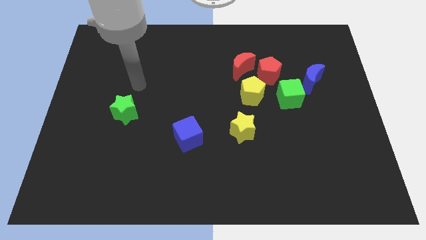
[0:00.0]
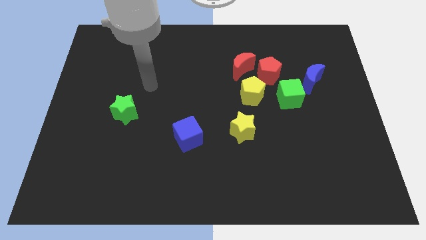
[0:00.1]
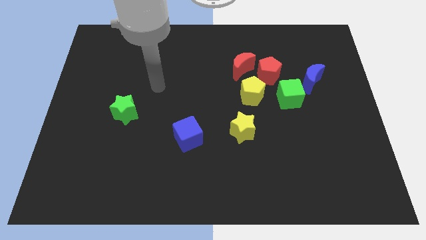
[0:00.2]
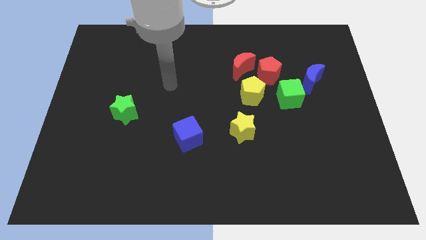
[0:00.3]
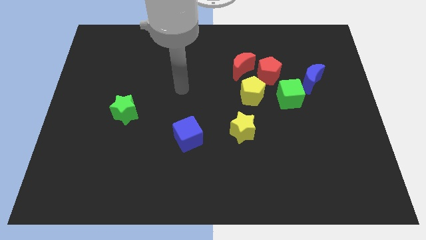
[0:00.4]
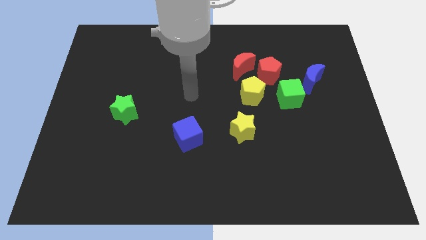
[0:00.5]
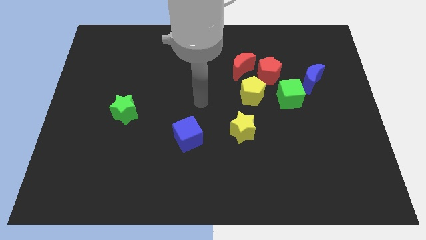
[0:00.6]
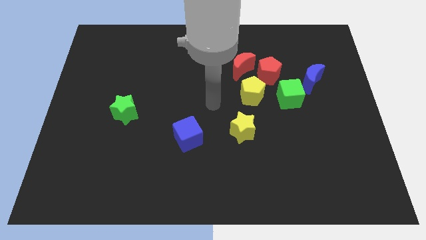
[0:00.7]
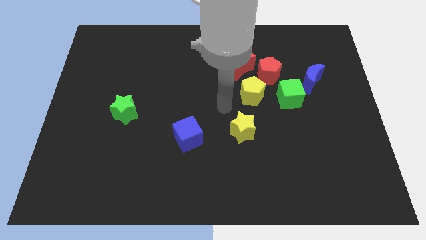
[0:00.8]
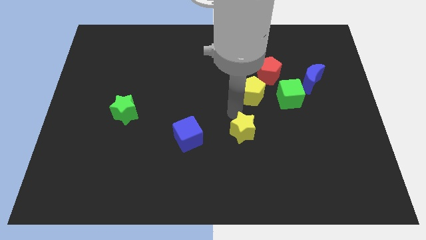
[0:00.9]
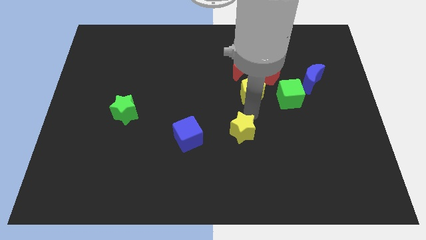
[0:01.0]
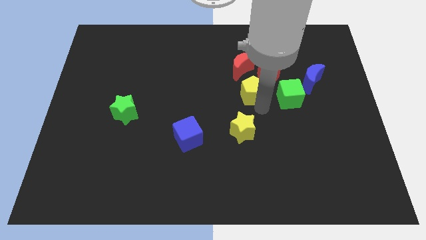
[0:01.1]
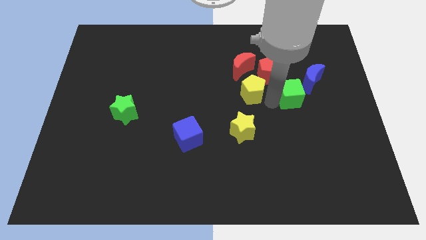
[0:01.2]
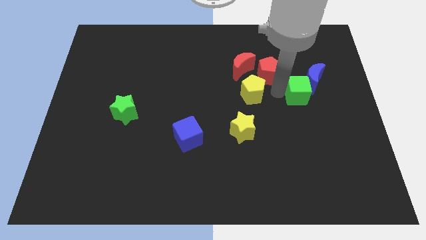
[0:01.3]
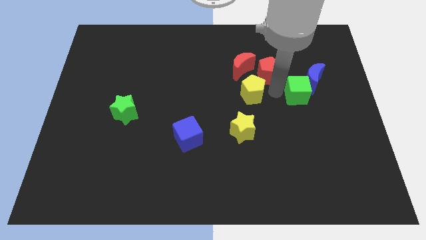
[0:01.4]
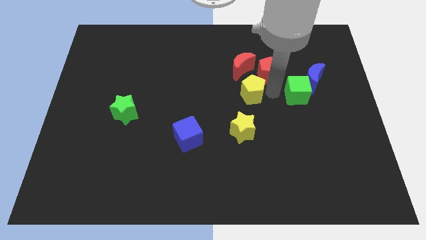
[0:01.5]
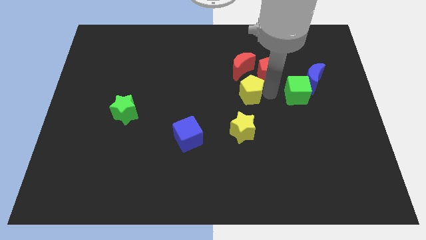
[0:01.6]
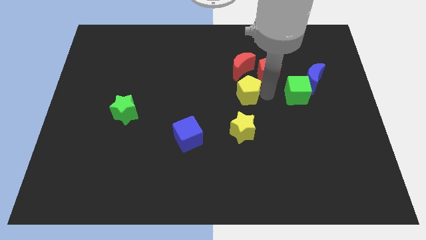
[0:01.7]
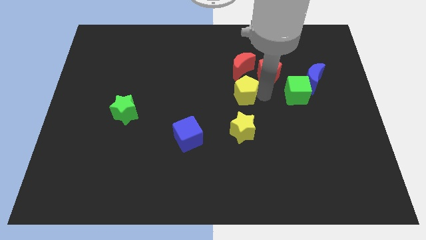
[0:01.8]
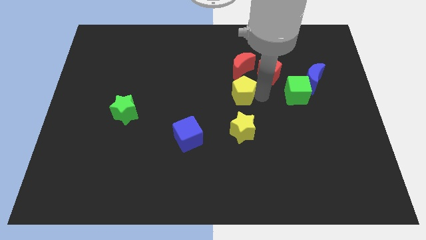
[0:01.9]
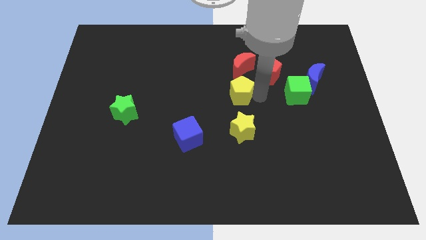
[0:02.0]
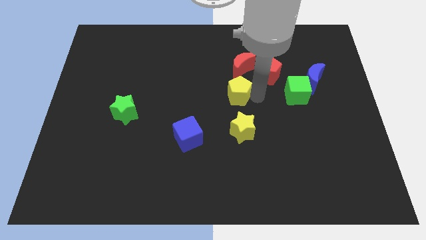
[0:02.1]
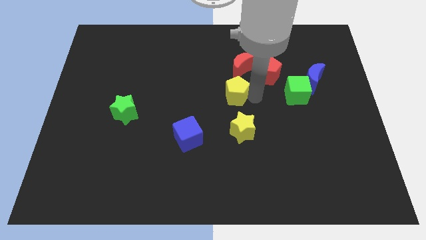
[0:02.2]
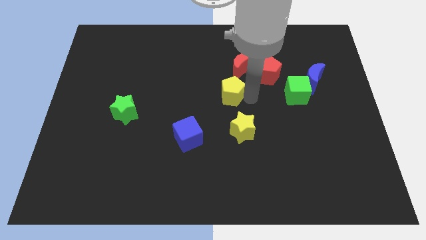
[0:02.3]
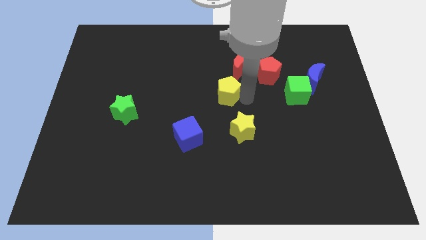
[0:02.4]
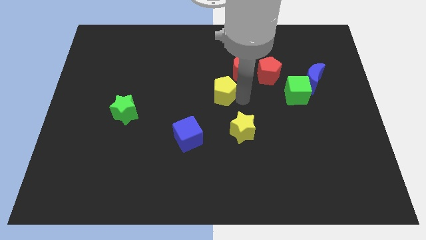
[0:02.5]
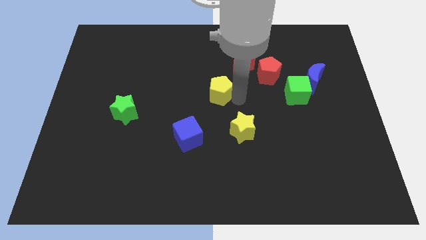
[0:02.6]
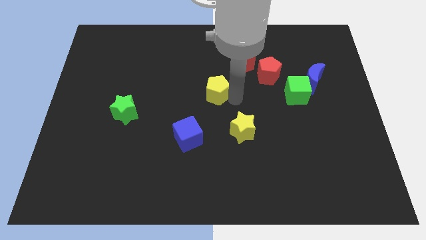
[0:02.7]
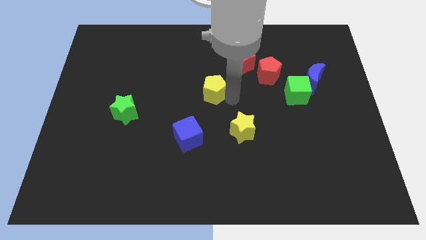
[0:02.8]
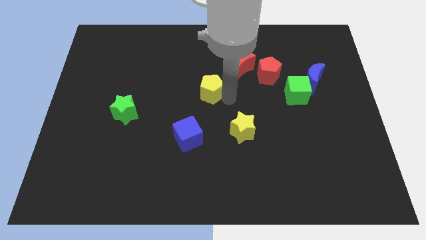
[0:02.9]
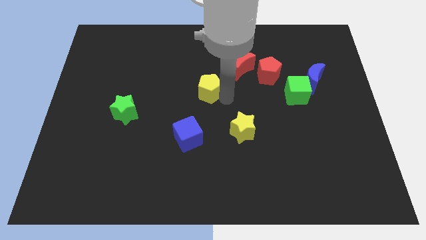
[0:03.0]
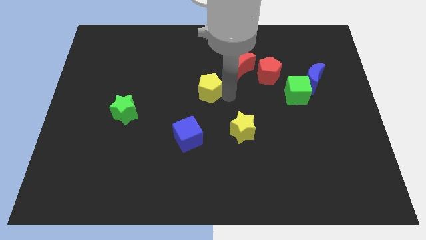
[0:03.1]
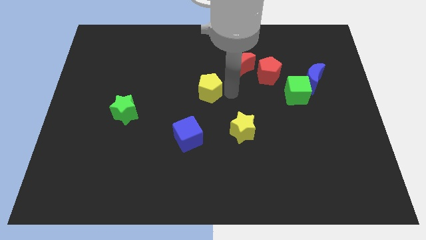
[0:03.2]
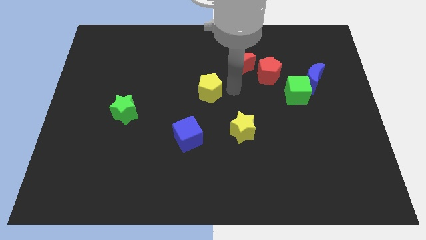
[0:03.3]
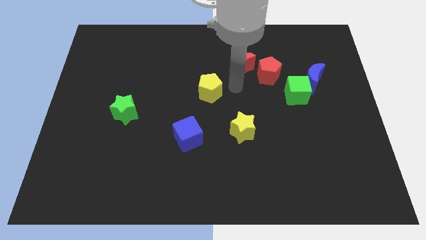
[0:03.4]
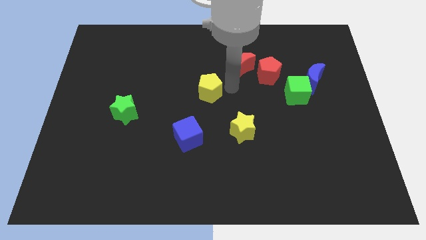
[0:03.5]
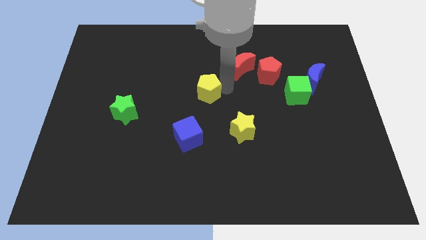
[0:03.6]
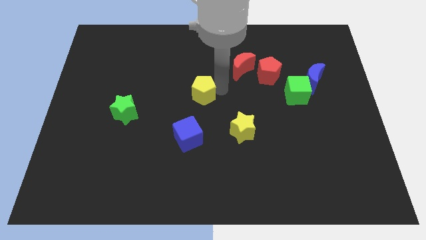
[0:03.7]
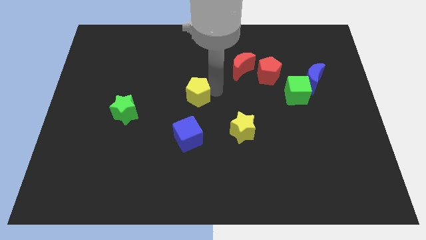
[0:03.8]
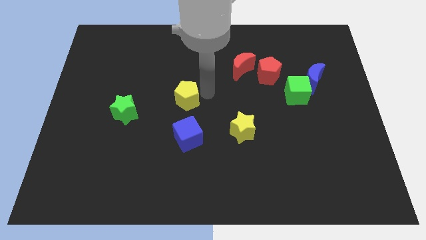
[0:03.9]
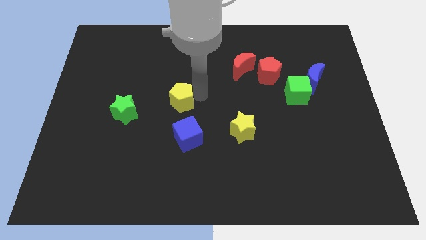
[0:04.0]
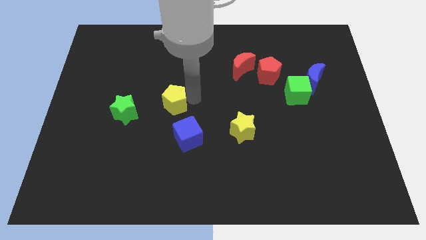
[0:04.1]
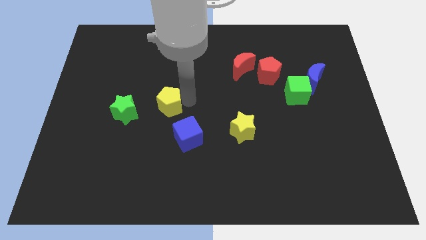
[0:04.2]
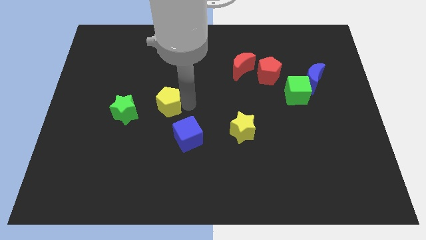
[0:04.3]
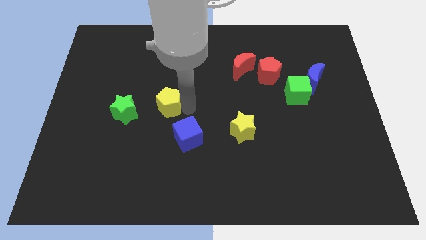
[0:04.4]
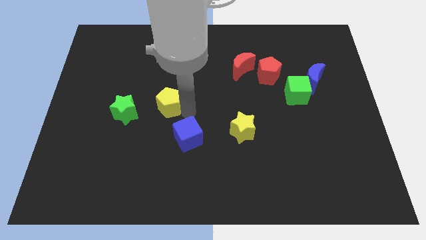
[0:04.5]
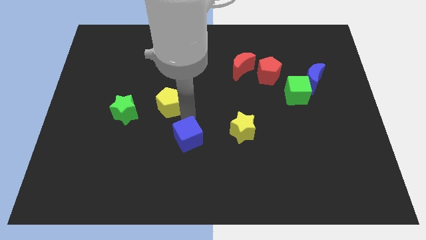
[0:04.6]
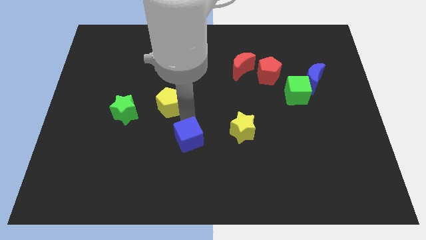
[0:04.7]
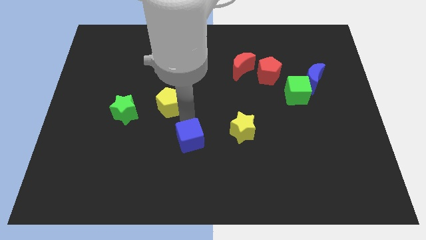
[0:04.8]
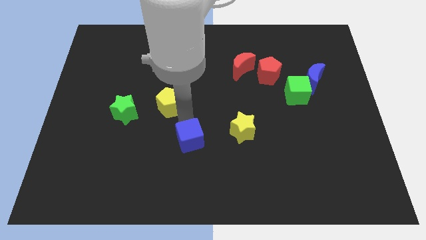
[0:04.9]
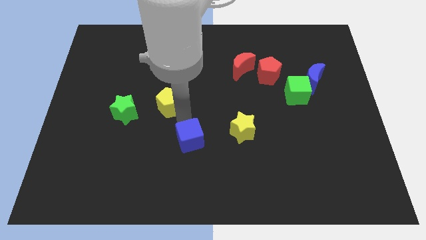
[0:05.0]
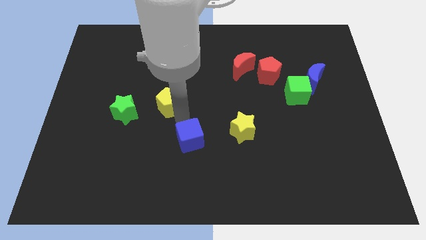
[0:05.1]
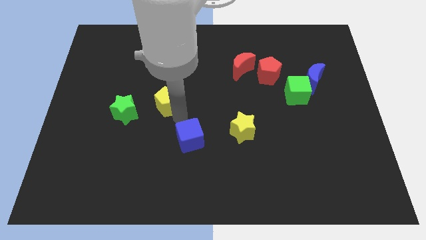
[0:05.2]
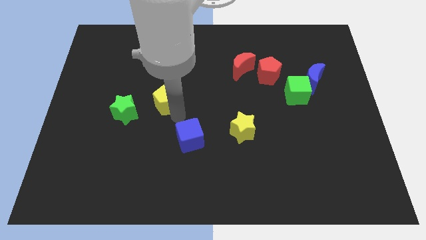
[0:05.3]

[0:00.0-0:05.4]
push the yellow pentagon to the left

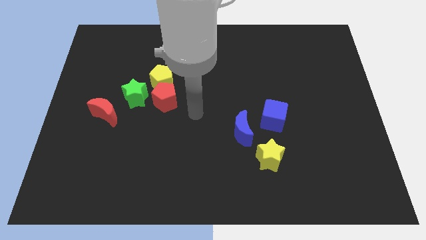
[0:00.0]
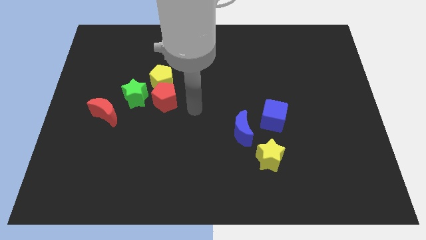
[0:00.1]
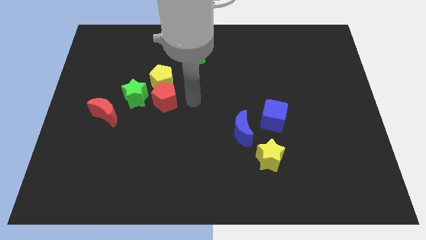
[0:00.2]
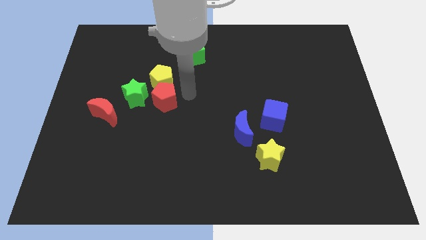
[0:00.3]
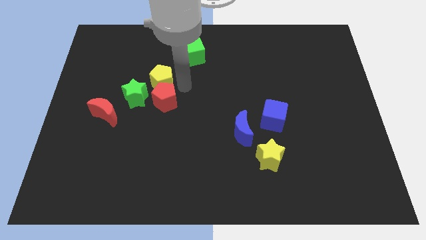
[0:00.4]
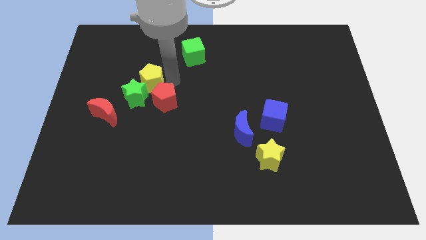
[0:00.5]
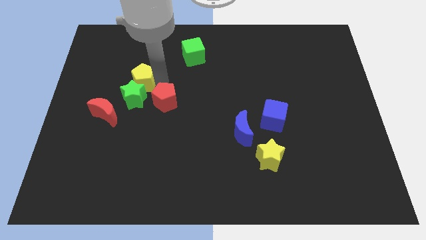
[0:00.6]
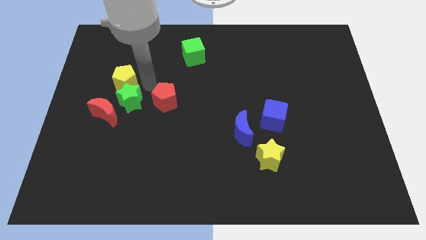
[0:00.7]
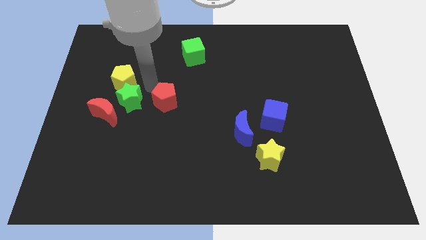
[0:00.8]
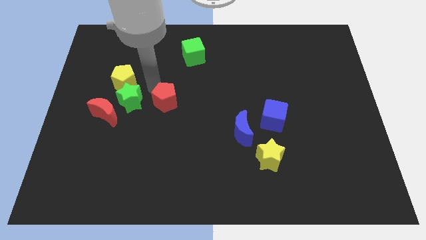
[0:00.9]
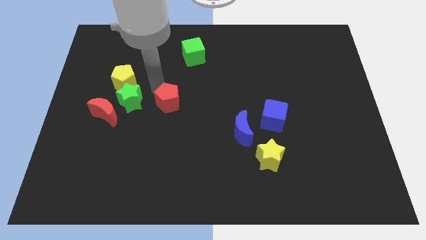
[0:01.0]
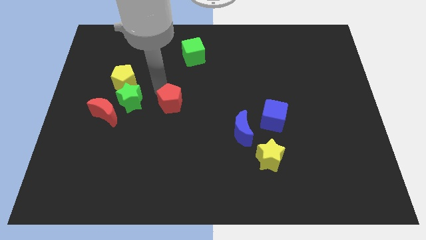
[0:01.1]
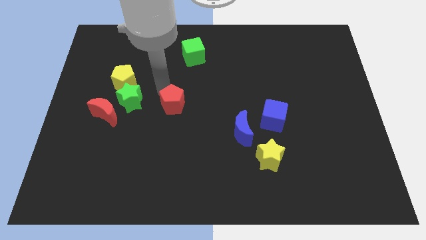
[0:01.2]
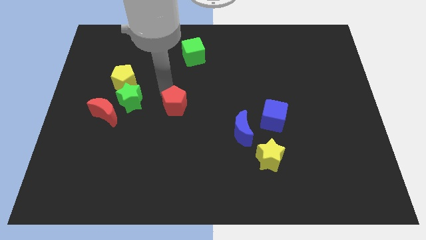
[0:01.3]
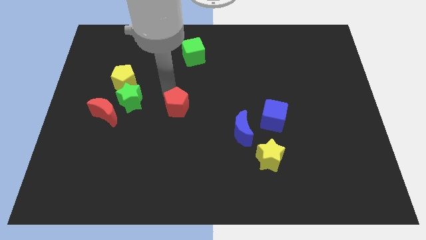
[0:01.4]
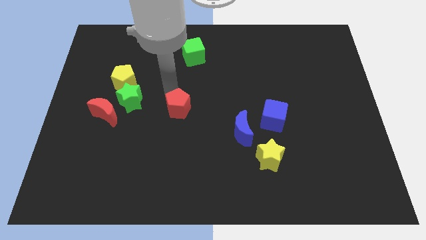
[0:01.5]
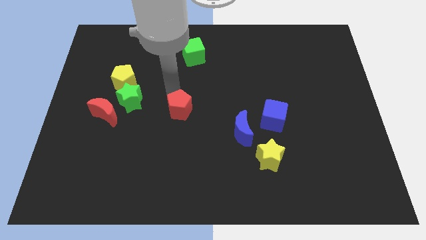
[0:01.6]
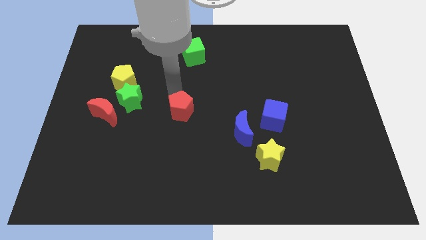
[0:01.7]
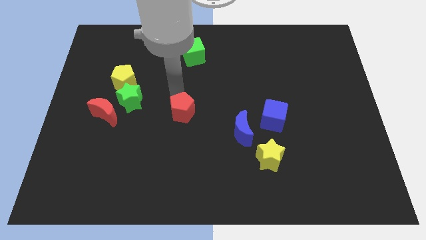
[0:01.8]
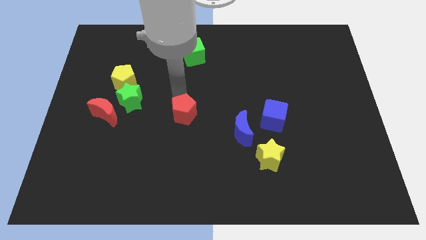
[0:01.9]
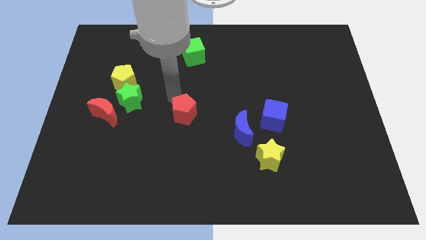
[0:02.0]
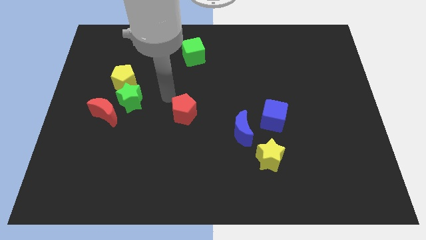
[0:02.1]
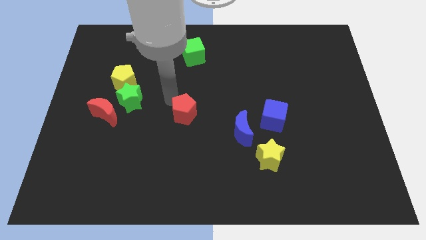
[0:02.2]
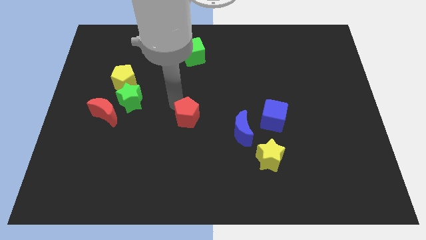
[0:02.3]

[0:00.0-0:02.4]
move the red pentagon somewhat downwards and right
